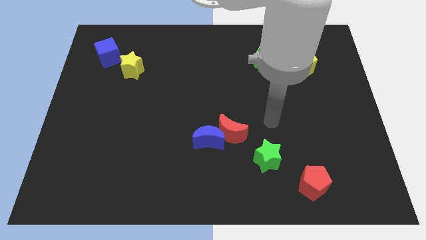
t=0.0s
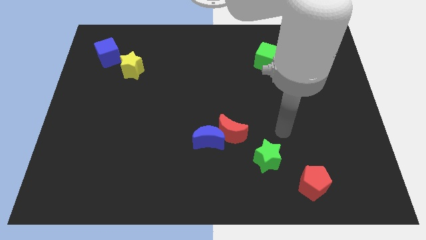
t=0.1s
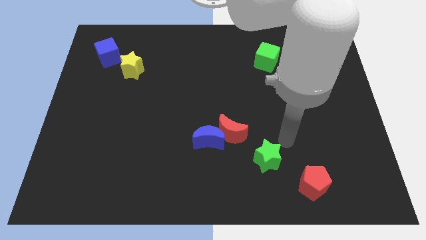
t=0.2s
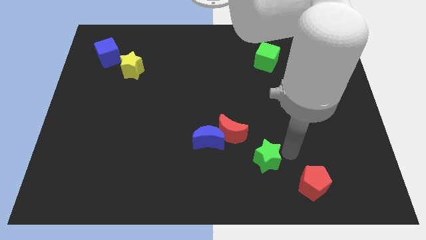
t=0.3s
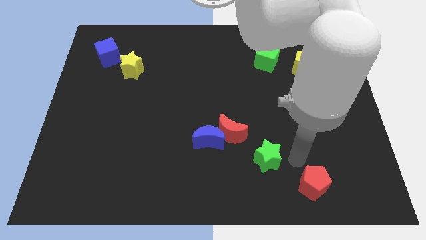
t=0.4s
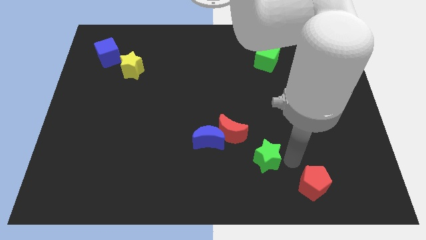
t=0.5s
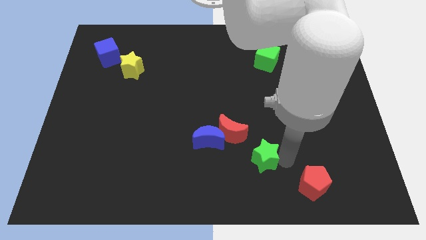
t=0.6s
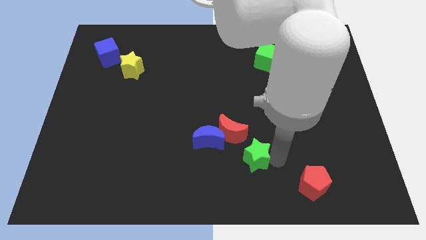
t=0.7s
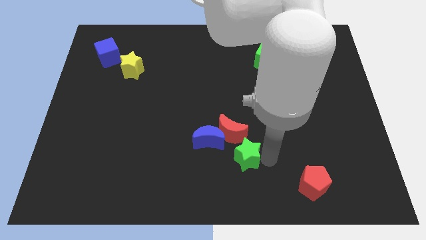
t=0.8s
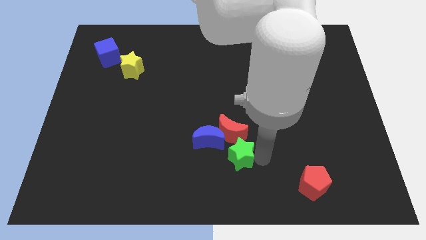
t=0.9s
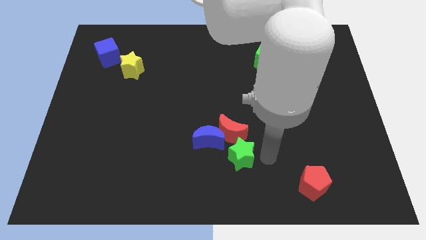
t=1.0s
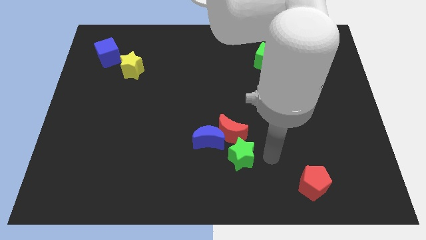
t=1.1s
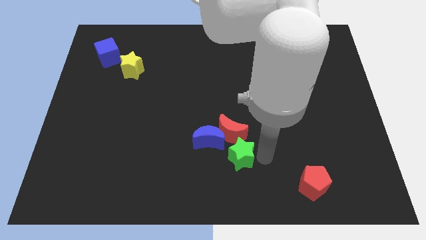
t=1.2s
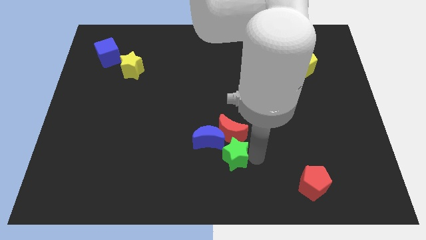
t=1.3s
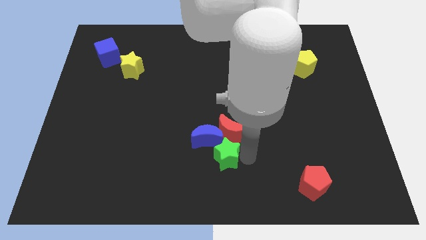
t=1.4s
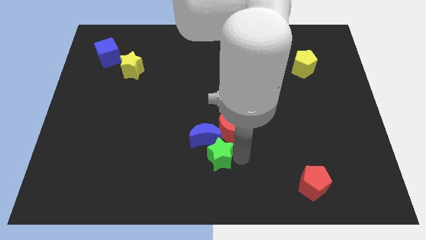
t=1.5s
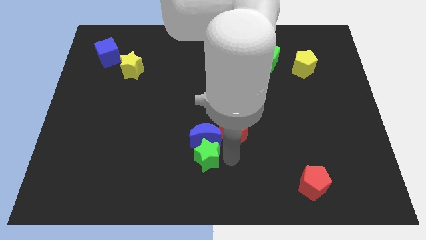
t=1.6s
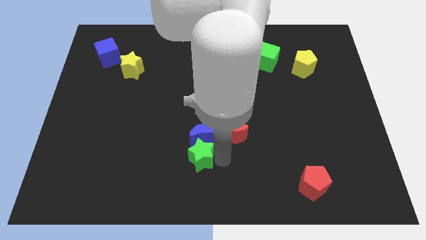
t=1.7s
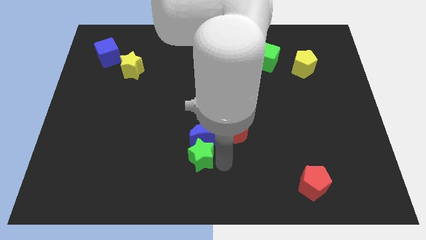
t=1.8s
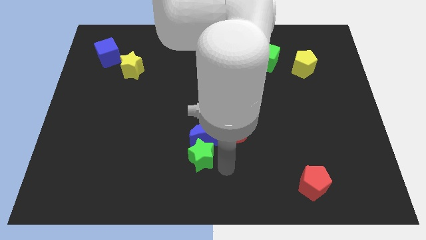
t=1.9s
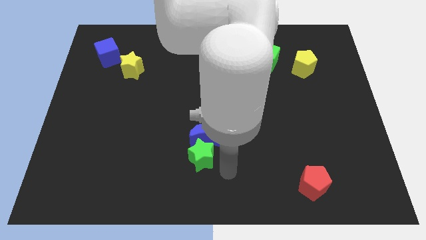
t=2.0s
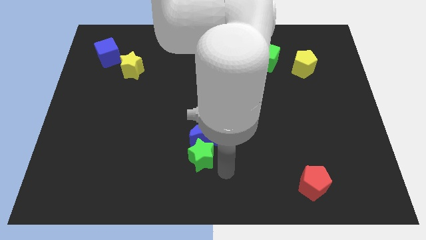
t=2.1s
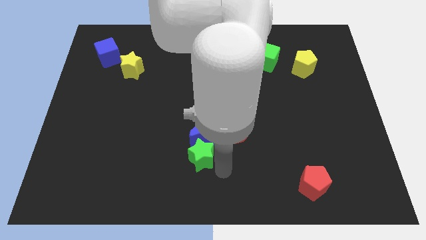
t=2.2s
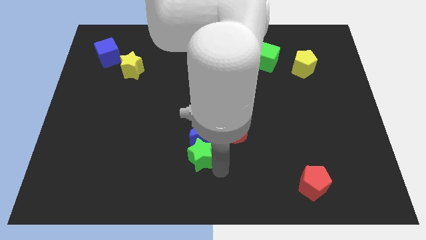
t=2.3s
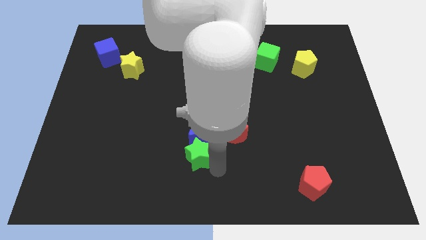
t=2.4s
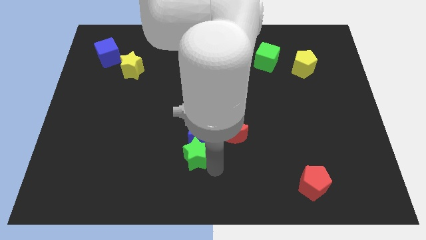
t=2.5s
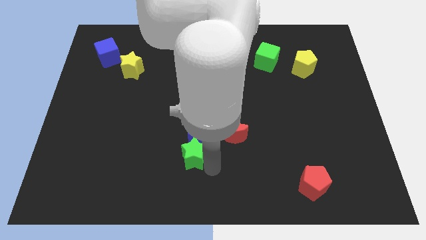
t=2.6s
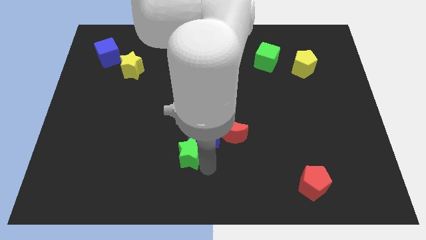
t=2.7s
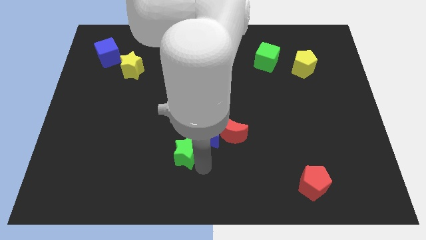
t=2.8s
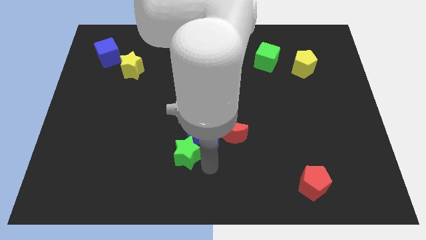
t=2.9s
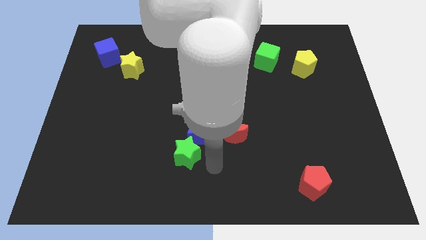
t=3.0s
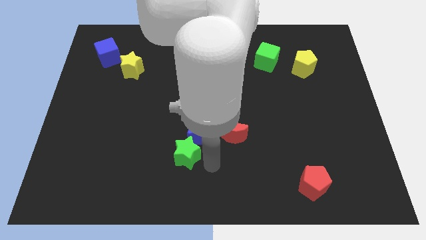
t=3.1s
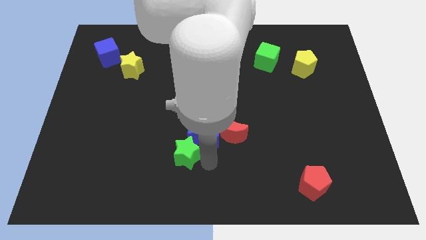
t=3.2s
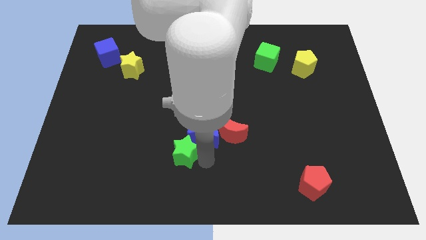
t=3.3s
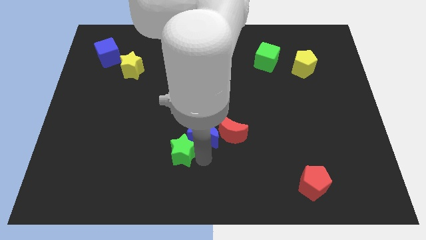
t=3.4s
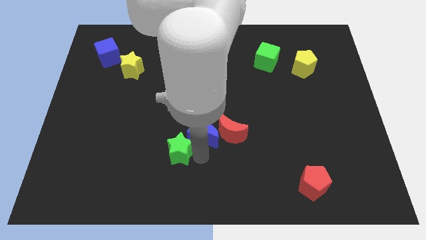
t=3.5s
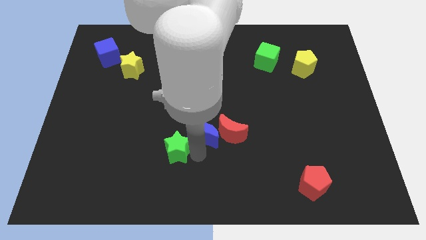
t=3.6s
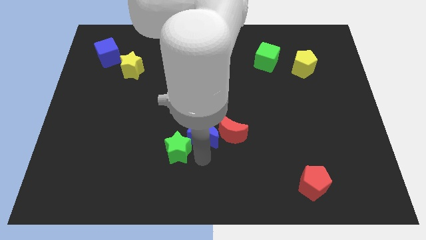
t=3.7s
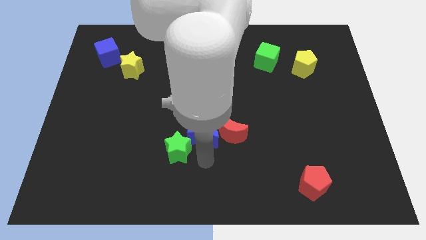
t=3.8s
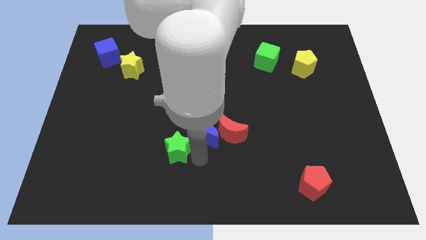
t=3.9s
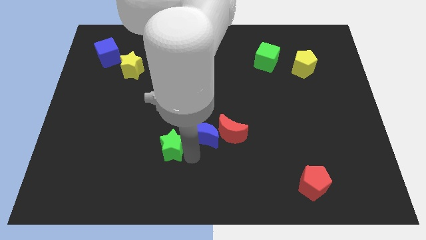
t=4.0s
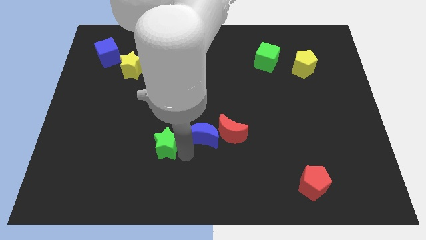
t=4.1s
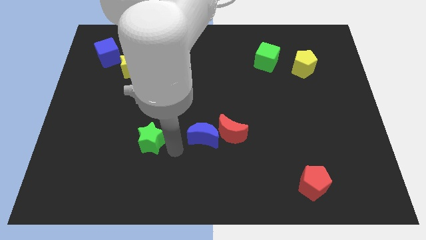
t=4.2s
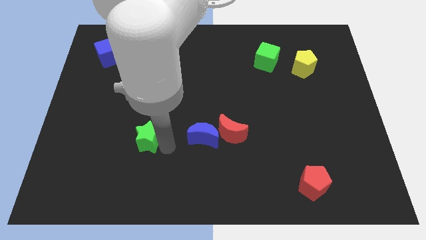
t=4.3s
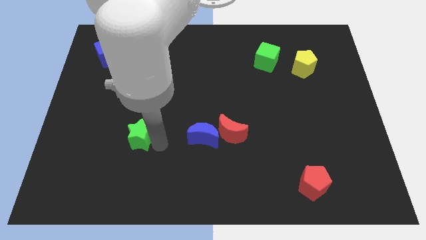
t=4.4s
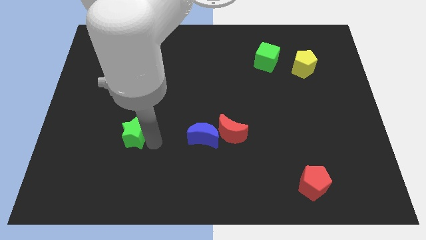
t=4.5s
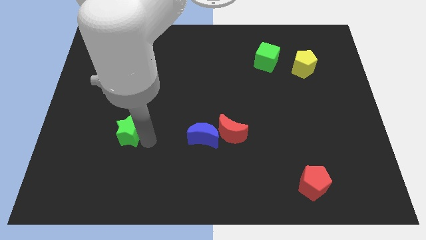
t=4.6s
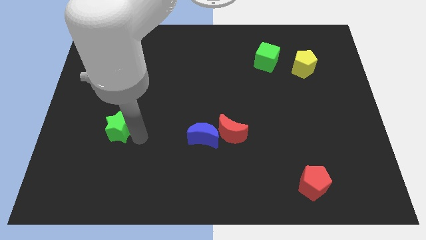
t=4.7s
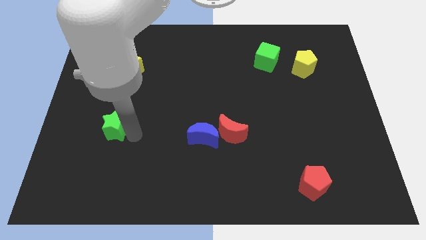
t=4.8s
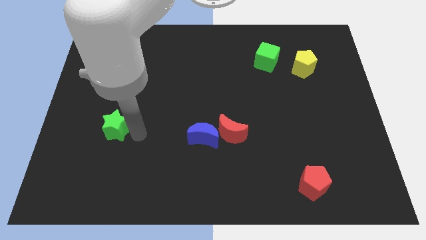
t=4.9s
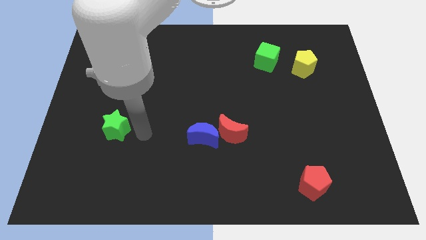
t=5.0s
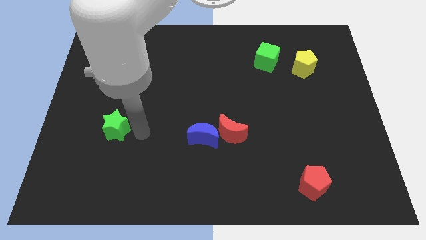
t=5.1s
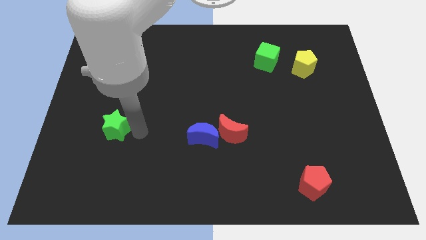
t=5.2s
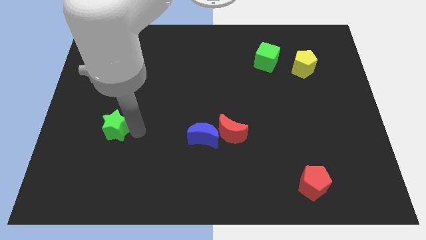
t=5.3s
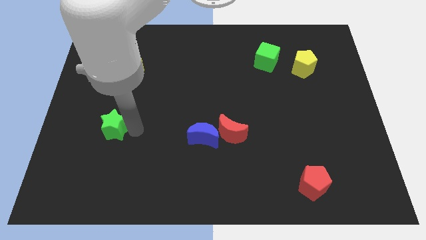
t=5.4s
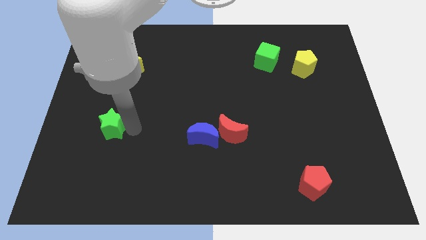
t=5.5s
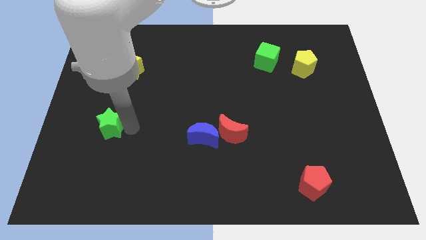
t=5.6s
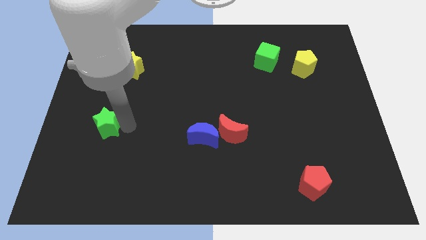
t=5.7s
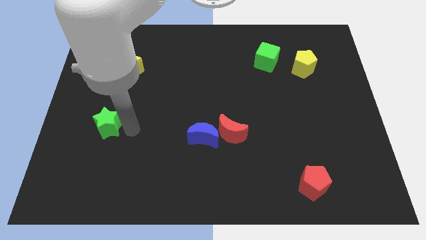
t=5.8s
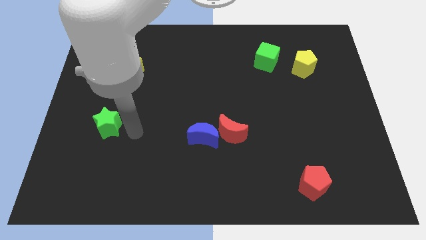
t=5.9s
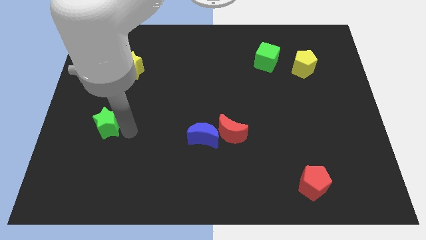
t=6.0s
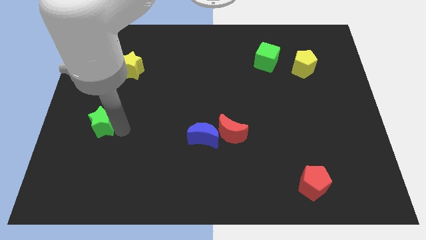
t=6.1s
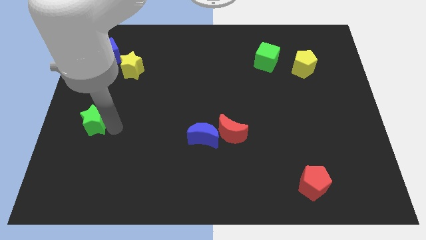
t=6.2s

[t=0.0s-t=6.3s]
push the green star to the center left

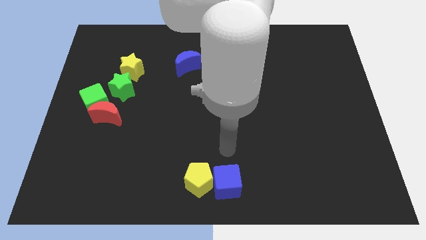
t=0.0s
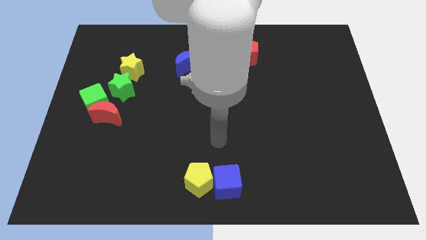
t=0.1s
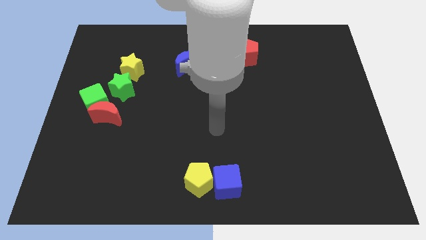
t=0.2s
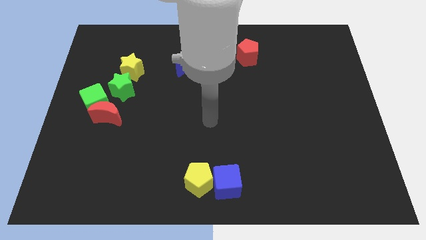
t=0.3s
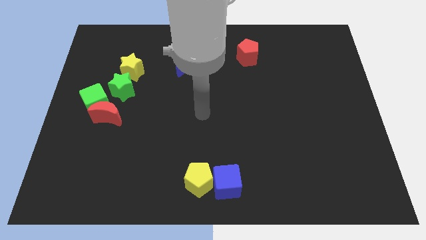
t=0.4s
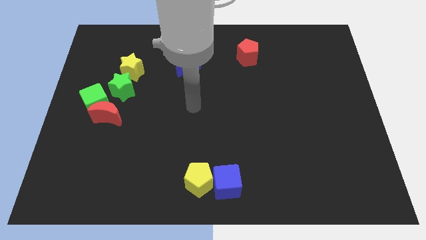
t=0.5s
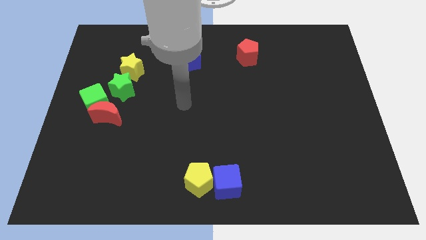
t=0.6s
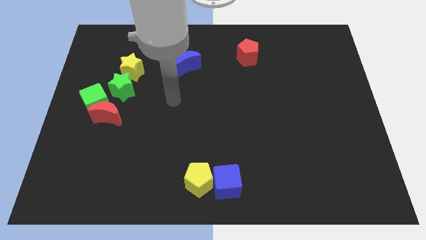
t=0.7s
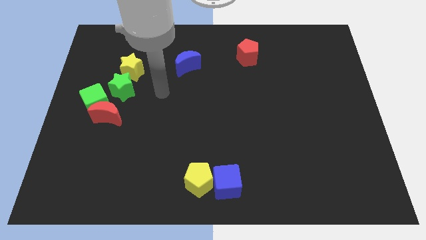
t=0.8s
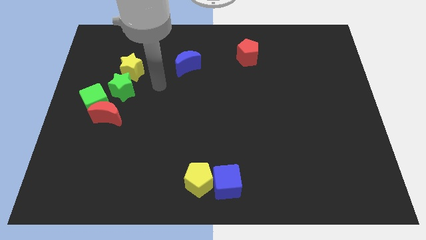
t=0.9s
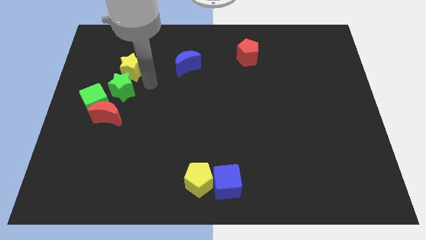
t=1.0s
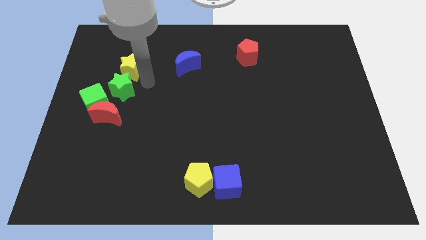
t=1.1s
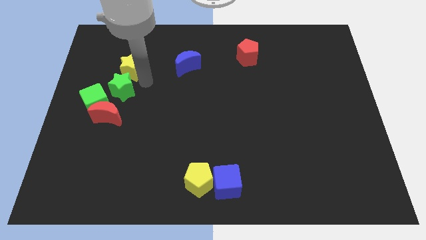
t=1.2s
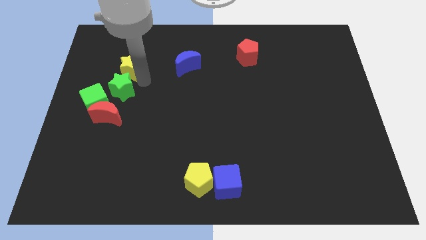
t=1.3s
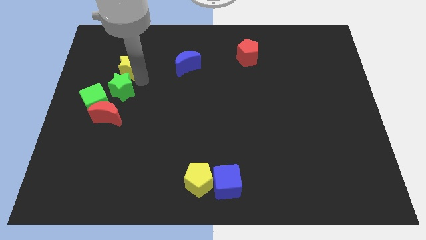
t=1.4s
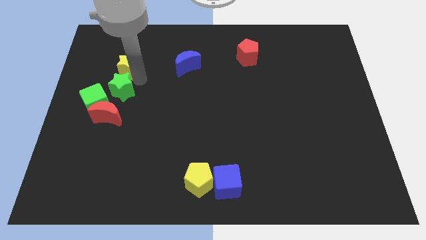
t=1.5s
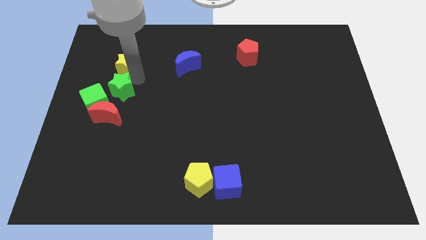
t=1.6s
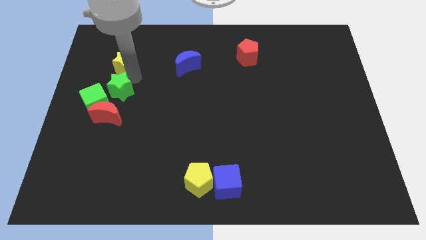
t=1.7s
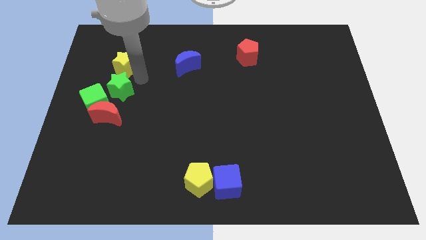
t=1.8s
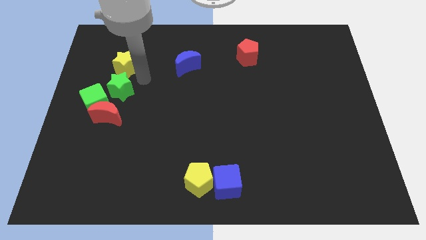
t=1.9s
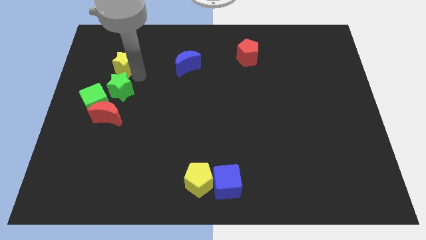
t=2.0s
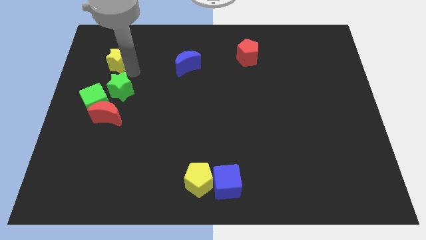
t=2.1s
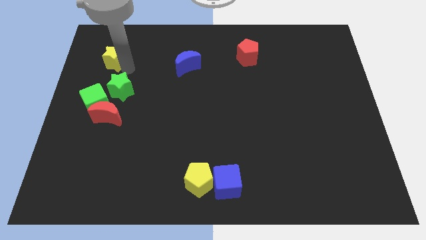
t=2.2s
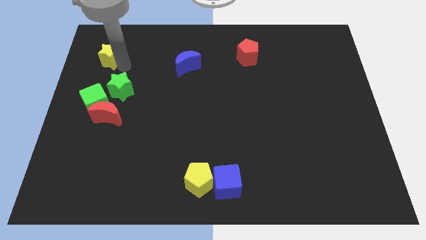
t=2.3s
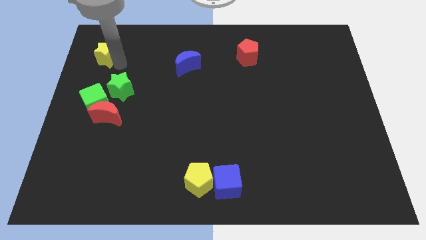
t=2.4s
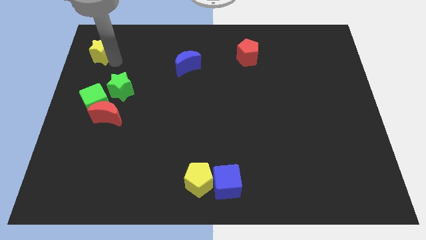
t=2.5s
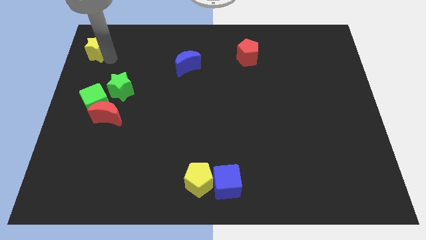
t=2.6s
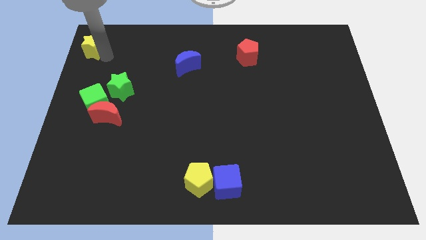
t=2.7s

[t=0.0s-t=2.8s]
slide the yellow star to the top left
